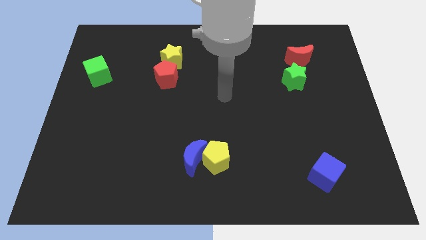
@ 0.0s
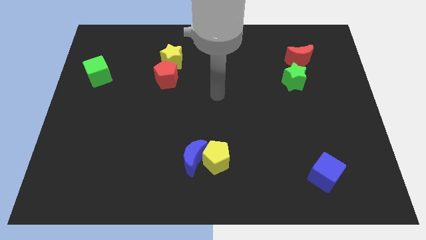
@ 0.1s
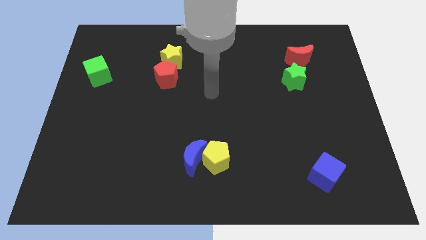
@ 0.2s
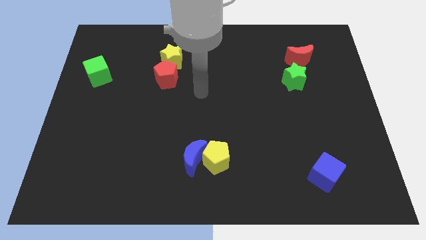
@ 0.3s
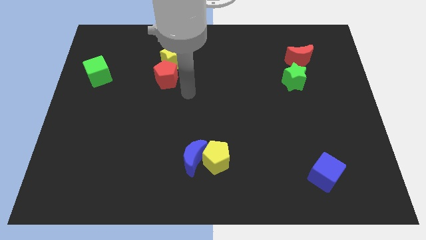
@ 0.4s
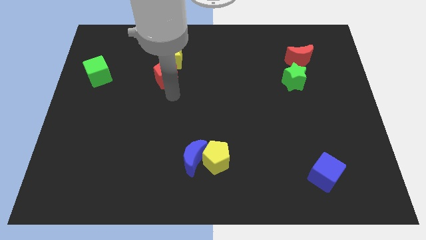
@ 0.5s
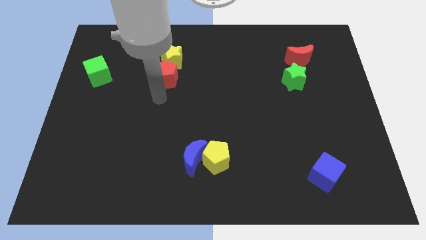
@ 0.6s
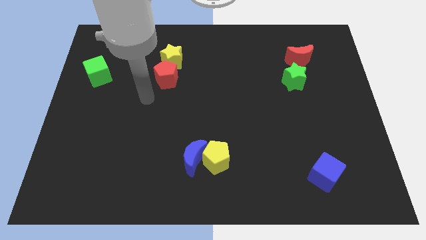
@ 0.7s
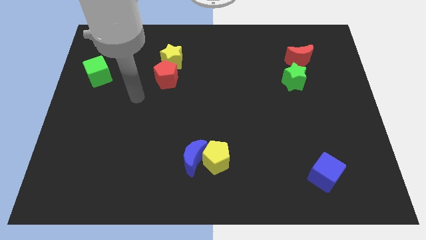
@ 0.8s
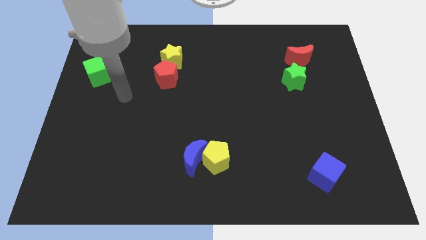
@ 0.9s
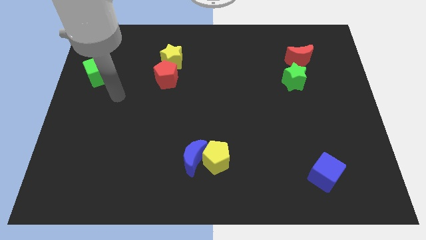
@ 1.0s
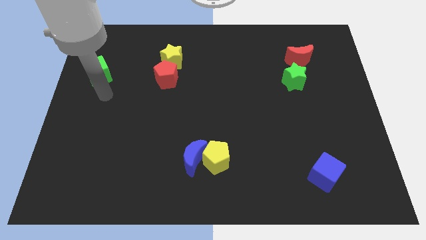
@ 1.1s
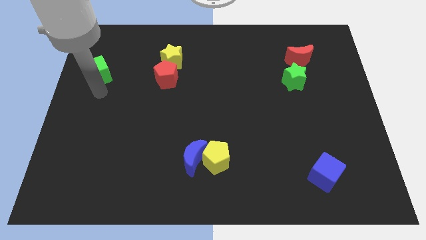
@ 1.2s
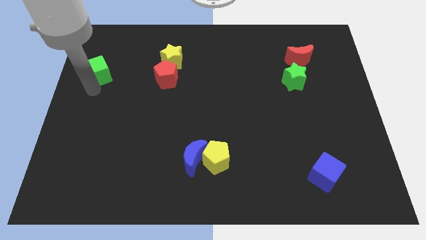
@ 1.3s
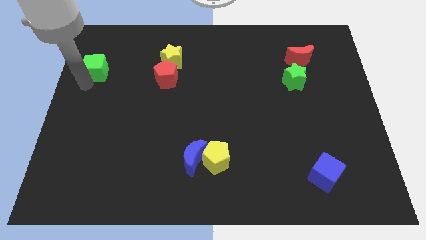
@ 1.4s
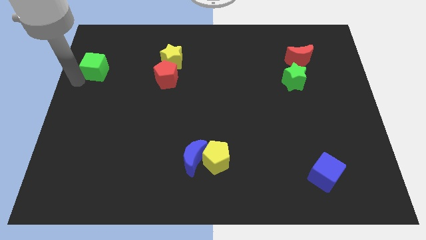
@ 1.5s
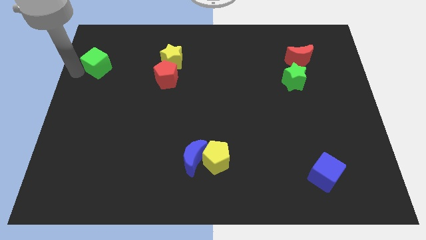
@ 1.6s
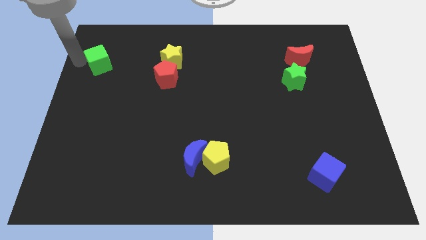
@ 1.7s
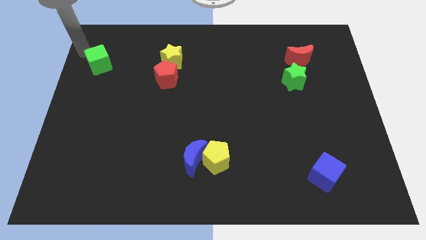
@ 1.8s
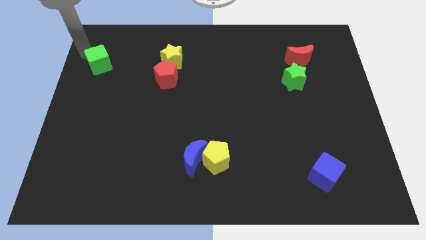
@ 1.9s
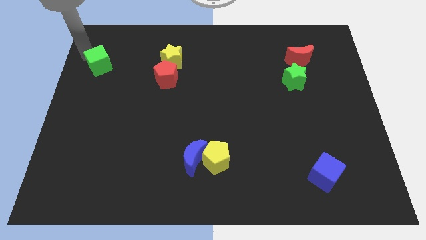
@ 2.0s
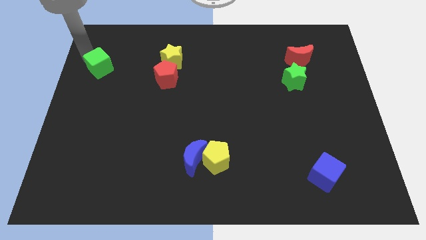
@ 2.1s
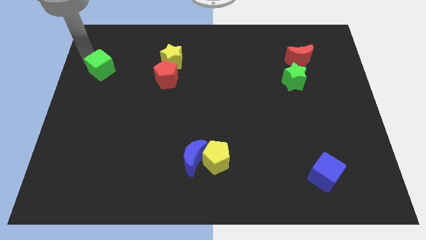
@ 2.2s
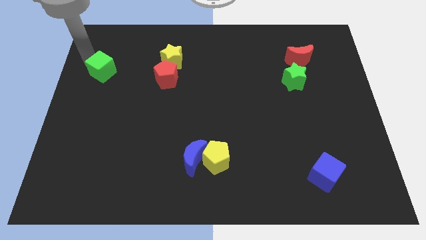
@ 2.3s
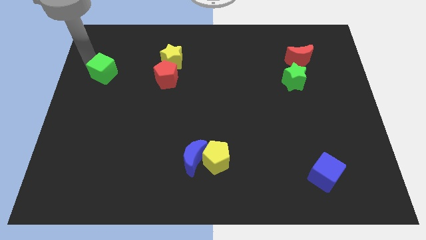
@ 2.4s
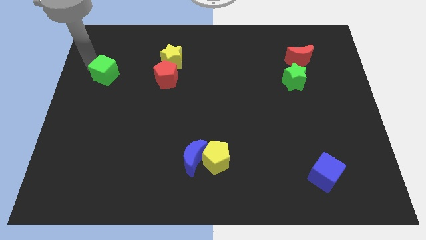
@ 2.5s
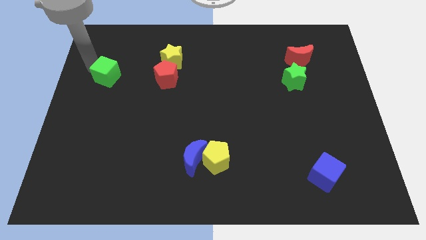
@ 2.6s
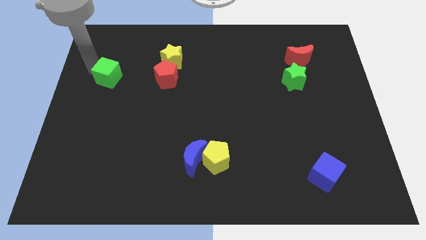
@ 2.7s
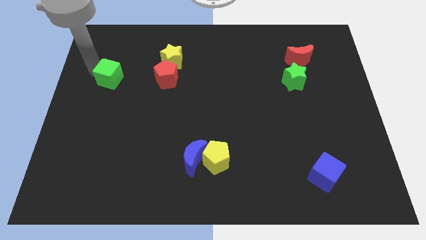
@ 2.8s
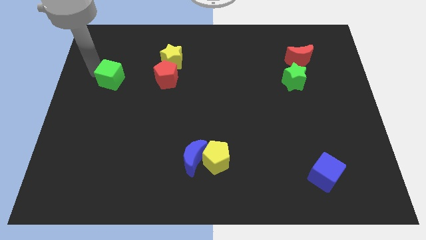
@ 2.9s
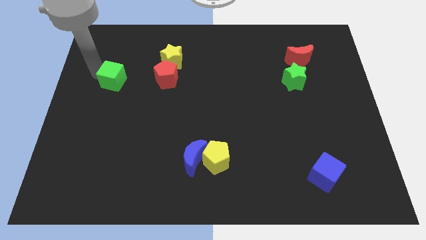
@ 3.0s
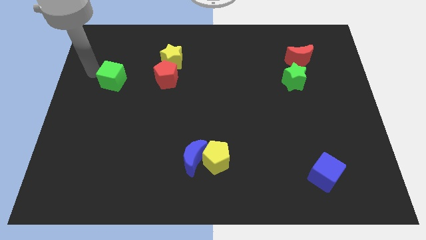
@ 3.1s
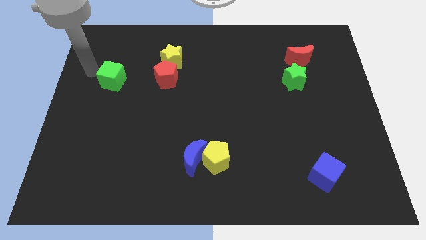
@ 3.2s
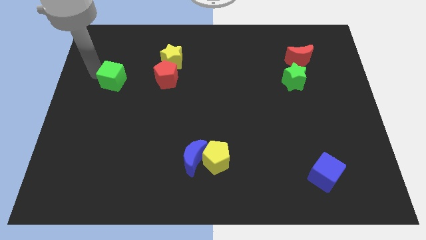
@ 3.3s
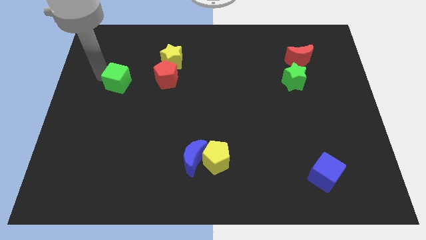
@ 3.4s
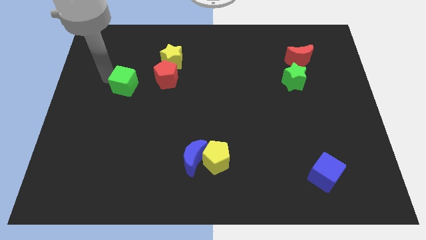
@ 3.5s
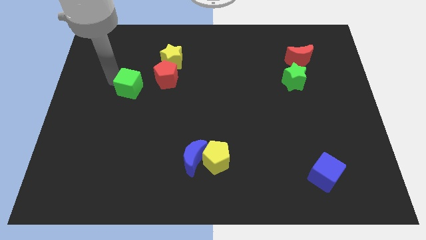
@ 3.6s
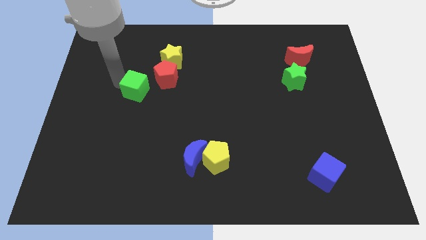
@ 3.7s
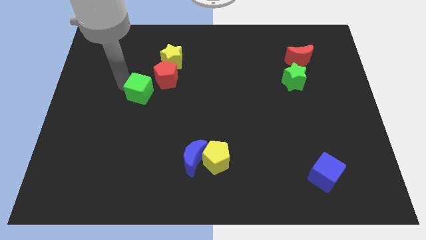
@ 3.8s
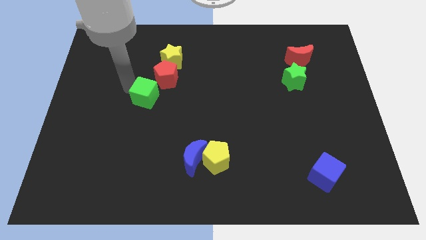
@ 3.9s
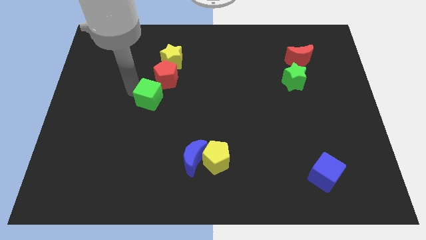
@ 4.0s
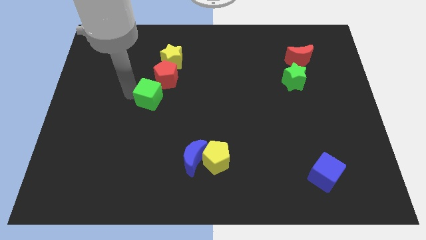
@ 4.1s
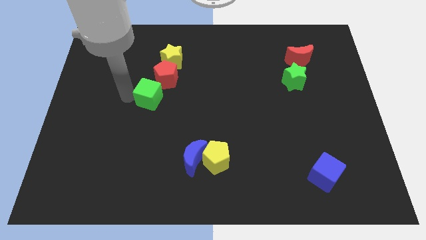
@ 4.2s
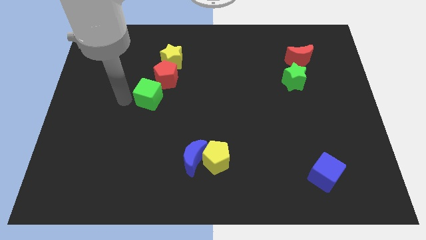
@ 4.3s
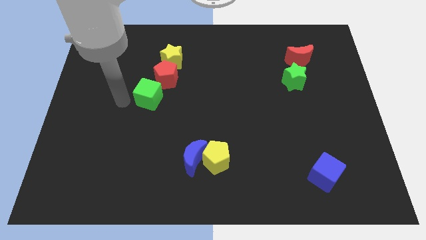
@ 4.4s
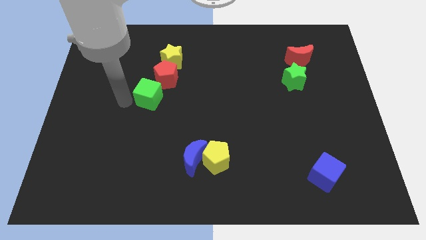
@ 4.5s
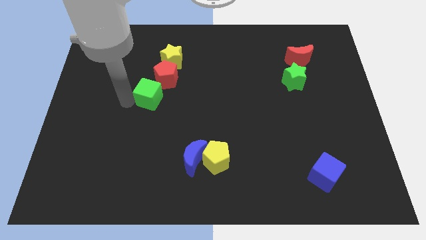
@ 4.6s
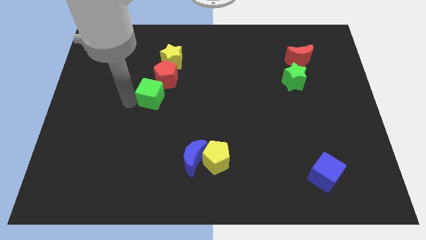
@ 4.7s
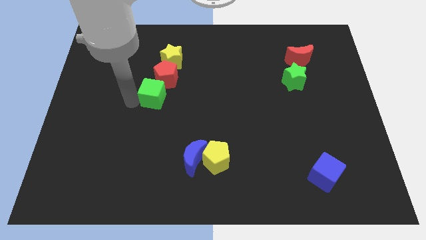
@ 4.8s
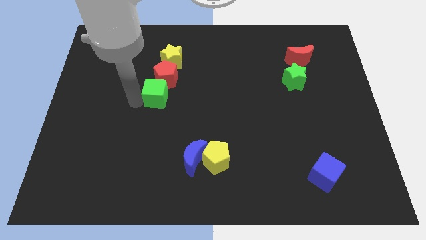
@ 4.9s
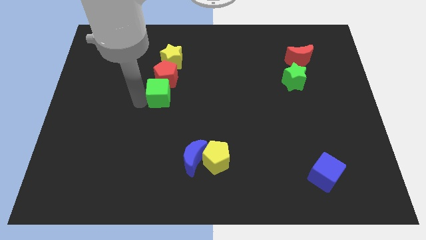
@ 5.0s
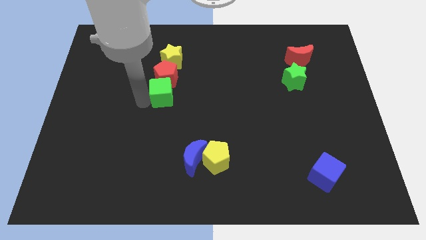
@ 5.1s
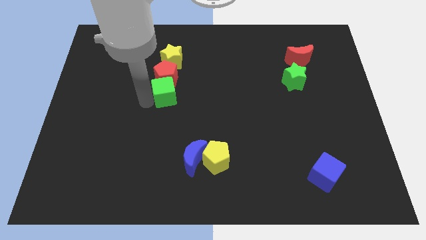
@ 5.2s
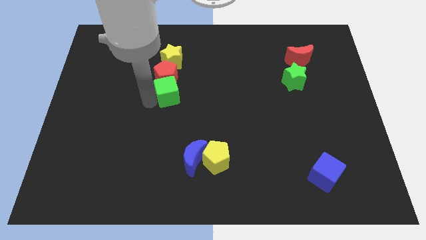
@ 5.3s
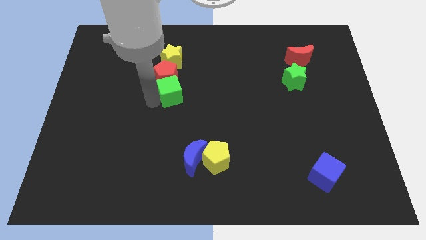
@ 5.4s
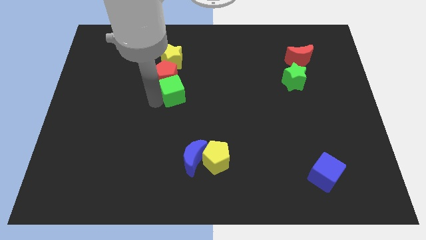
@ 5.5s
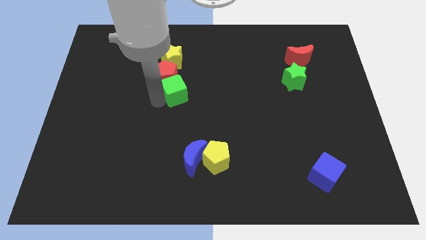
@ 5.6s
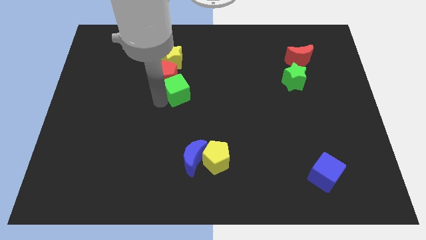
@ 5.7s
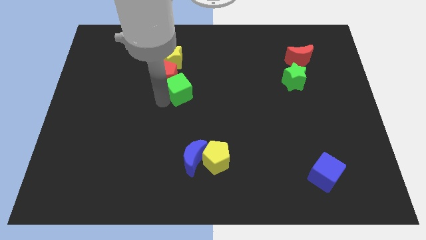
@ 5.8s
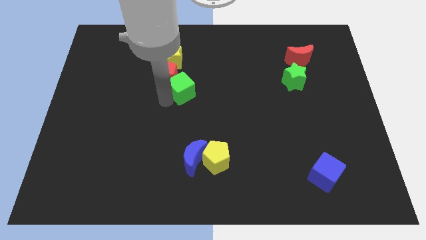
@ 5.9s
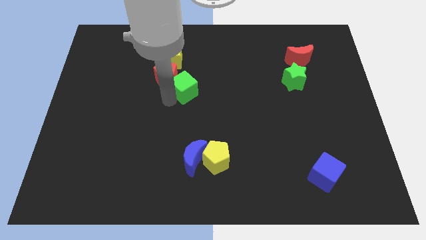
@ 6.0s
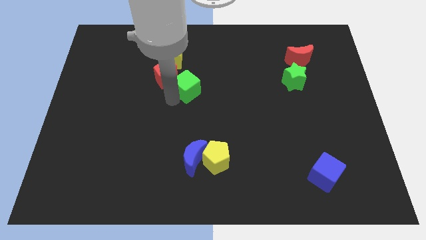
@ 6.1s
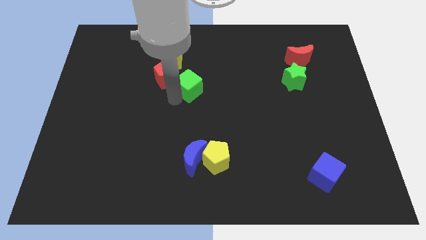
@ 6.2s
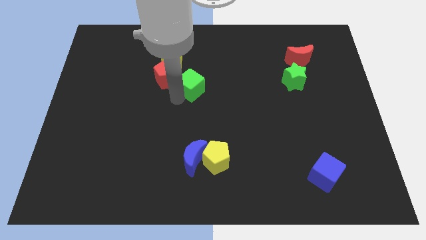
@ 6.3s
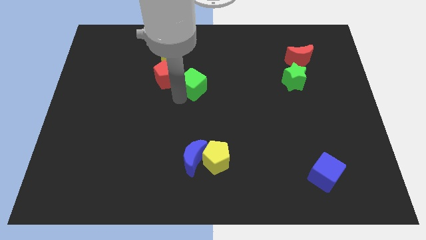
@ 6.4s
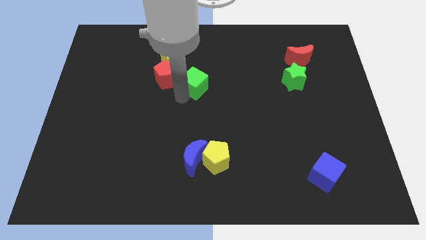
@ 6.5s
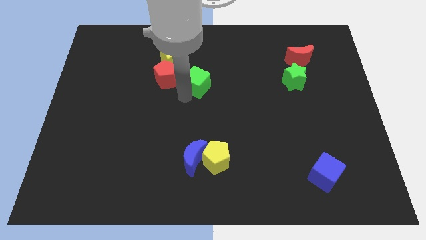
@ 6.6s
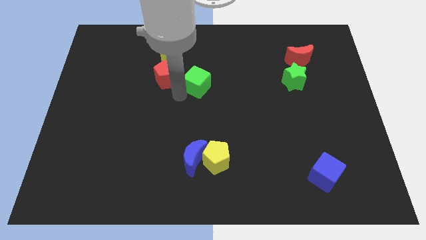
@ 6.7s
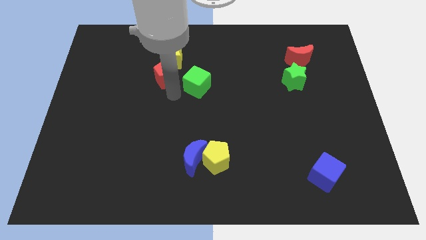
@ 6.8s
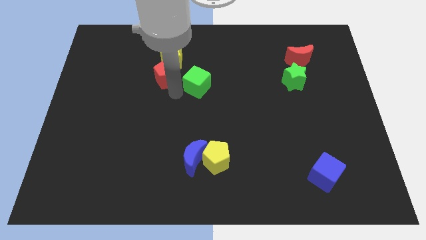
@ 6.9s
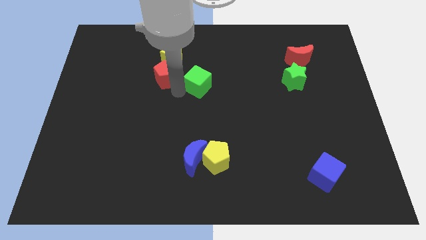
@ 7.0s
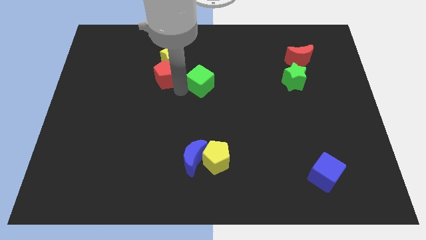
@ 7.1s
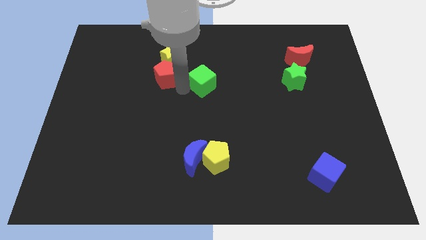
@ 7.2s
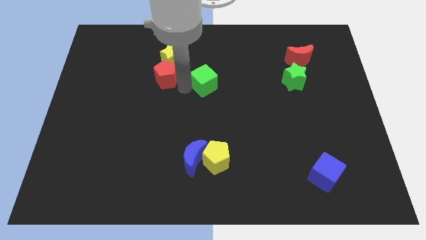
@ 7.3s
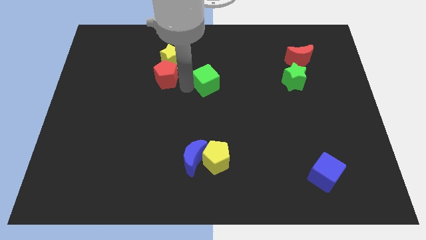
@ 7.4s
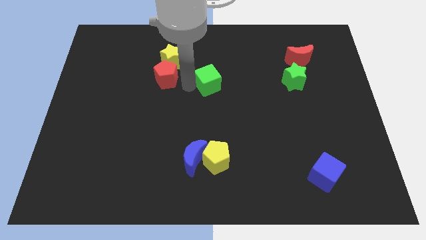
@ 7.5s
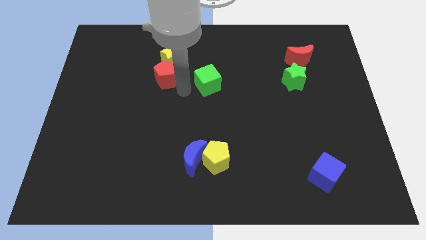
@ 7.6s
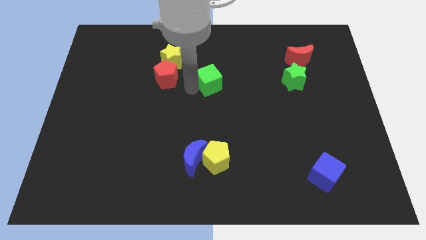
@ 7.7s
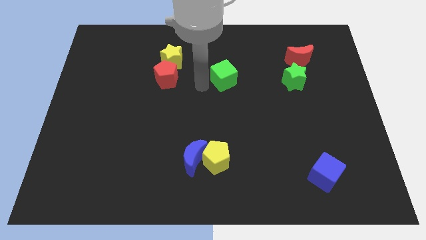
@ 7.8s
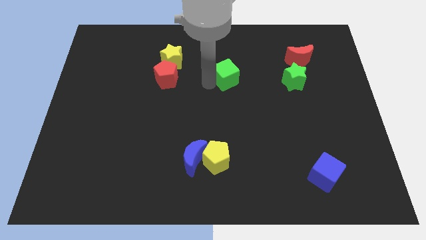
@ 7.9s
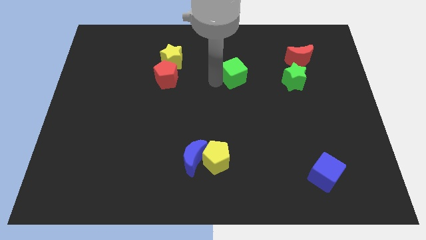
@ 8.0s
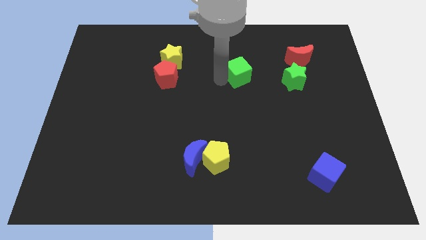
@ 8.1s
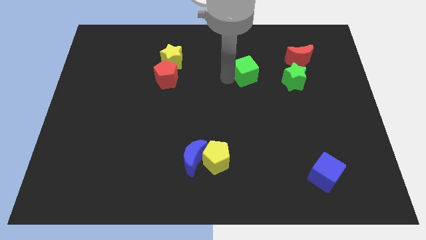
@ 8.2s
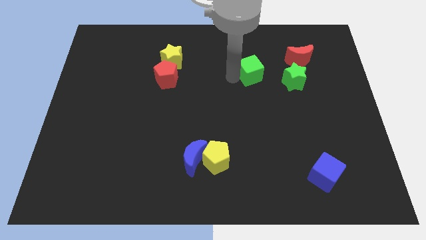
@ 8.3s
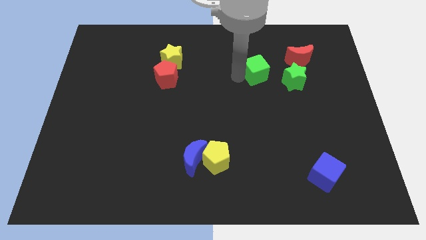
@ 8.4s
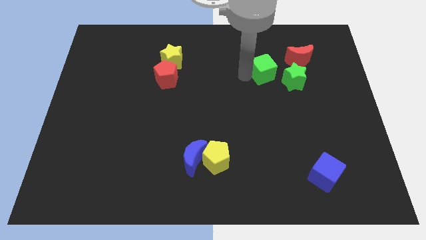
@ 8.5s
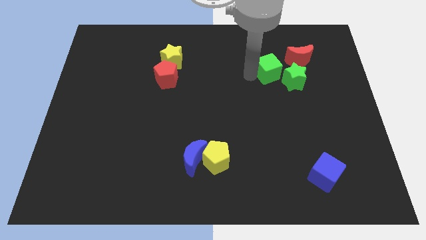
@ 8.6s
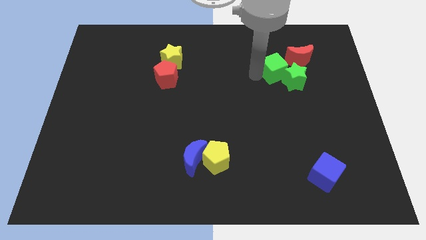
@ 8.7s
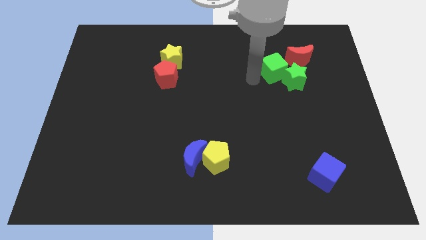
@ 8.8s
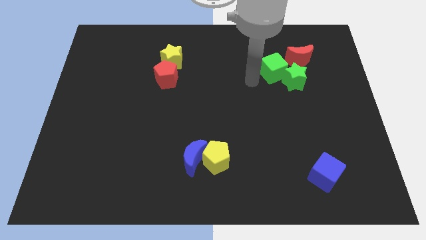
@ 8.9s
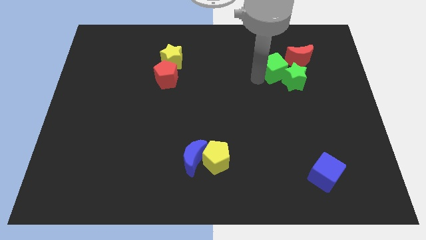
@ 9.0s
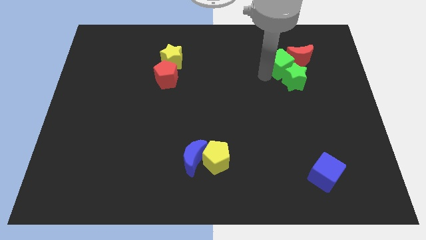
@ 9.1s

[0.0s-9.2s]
slide the green cube next to the red moon
